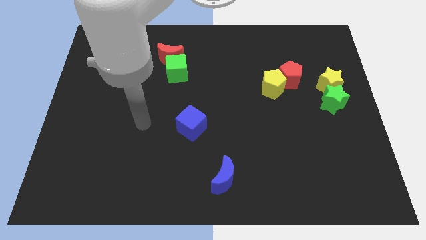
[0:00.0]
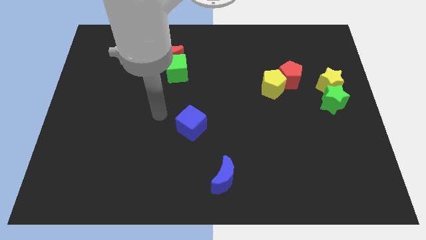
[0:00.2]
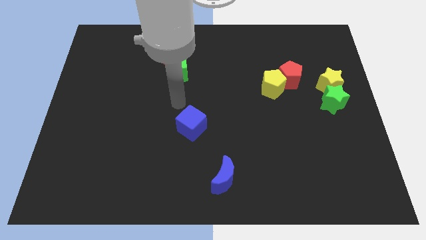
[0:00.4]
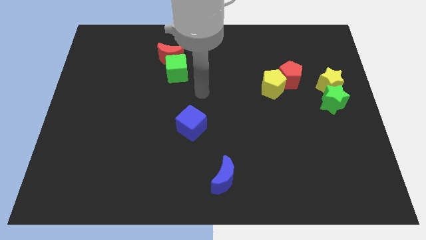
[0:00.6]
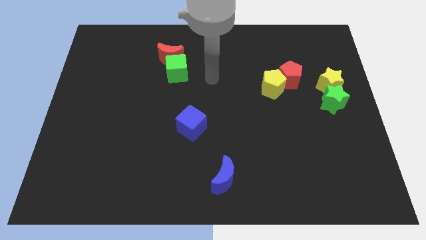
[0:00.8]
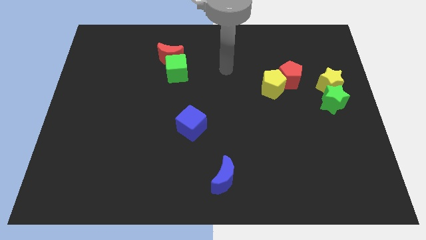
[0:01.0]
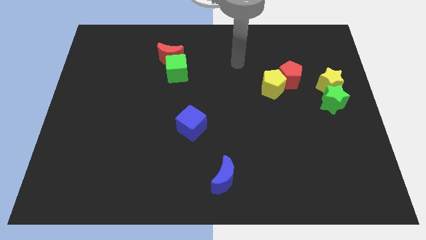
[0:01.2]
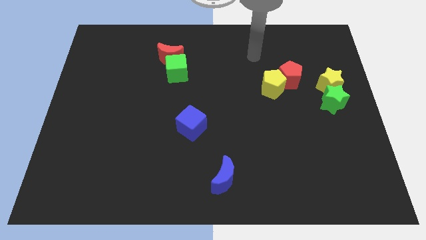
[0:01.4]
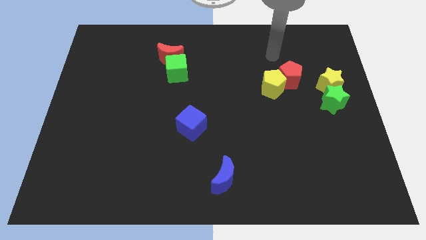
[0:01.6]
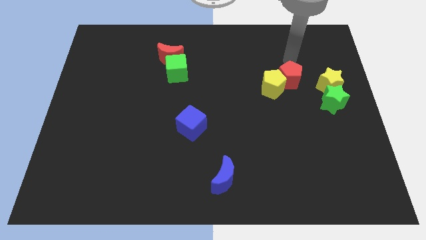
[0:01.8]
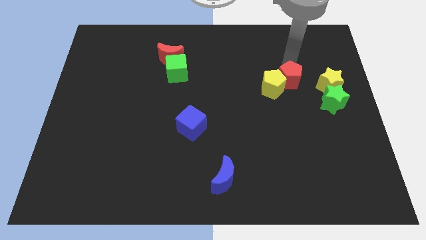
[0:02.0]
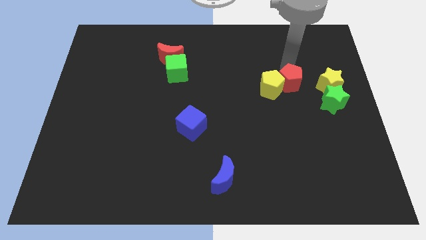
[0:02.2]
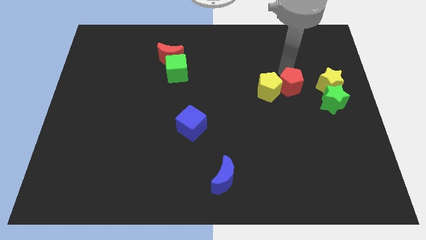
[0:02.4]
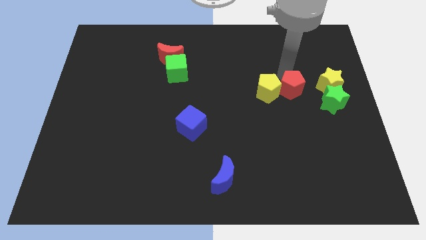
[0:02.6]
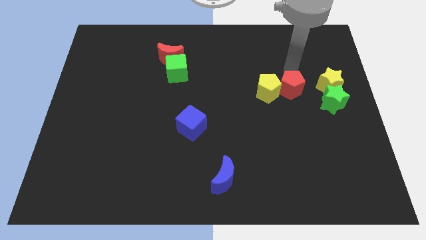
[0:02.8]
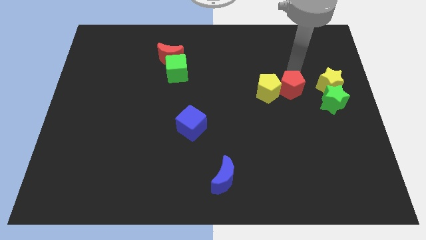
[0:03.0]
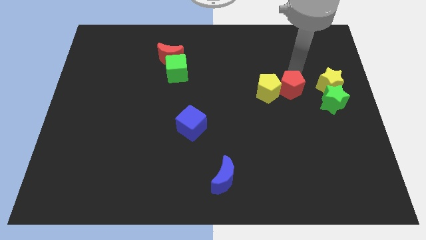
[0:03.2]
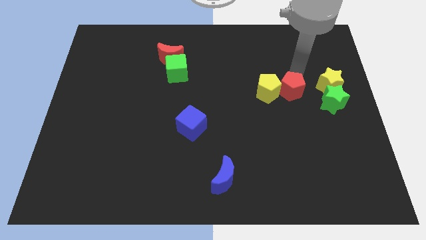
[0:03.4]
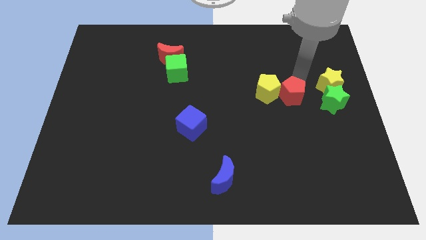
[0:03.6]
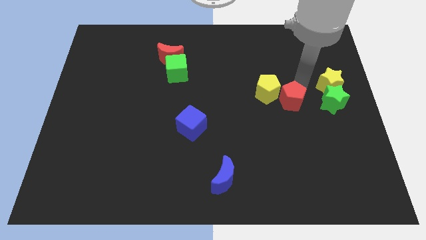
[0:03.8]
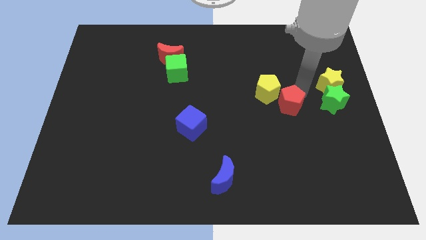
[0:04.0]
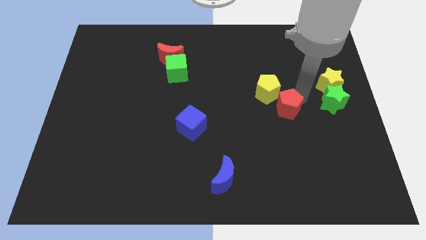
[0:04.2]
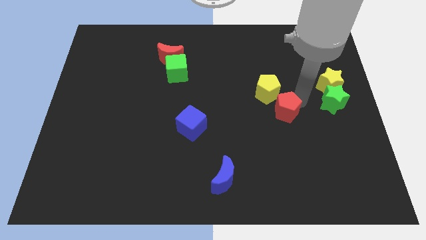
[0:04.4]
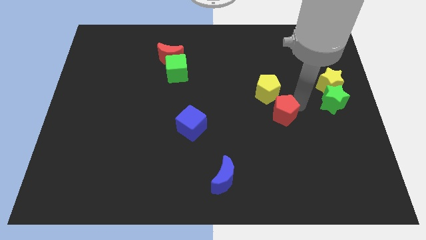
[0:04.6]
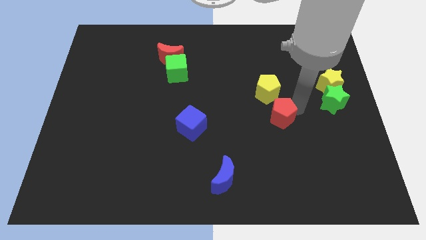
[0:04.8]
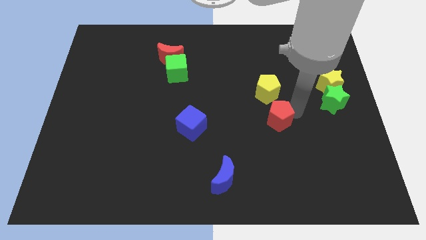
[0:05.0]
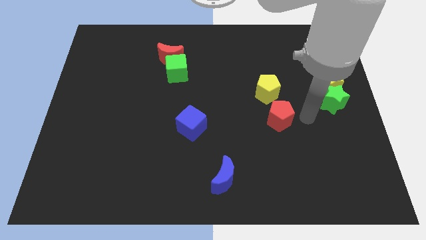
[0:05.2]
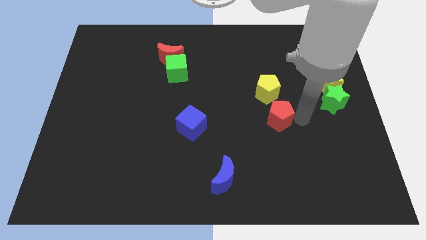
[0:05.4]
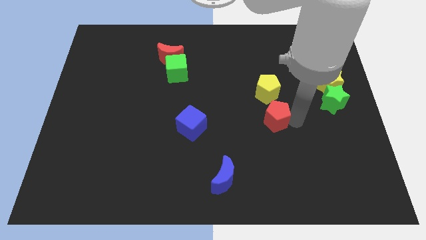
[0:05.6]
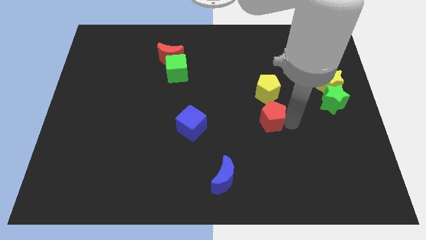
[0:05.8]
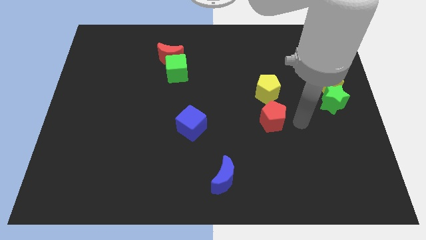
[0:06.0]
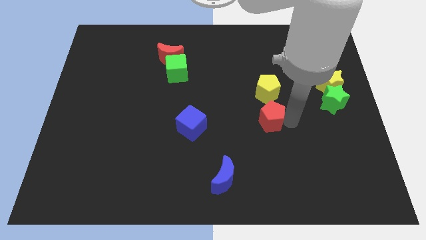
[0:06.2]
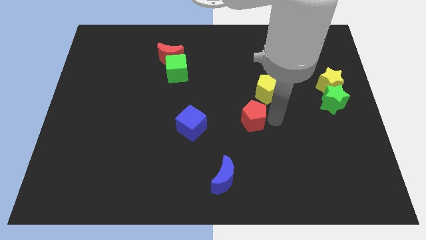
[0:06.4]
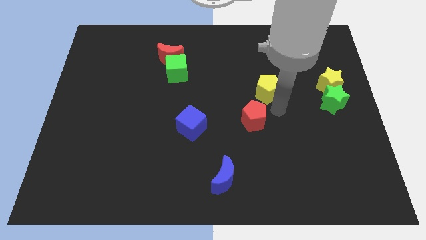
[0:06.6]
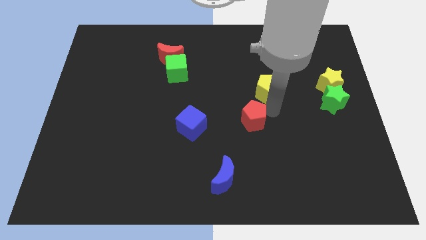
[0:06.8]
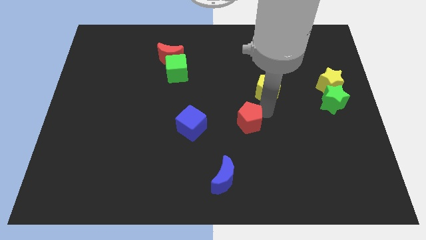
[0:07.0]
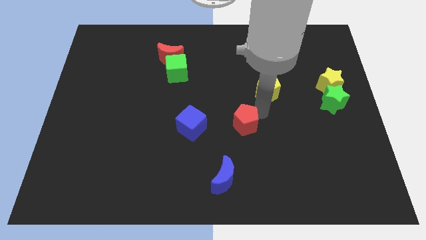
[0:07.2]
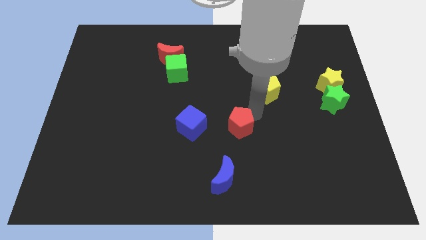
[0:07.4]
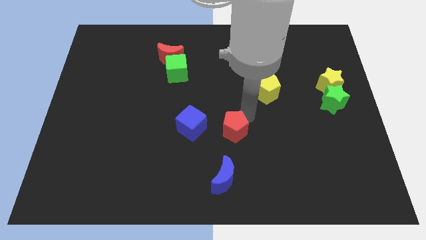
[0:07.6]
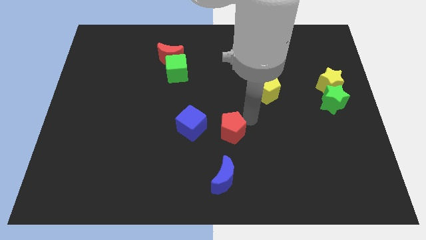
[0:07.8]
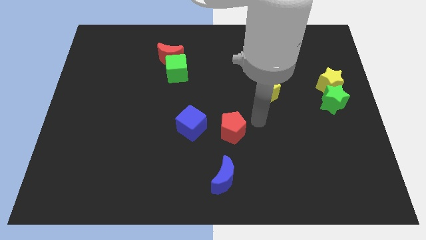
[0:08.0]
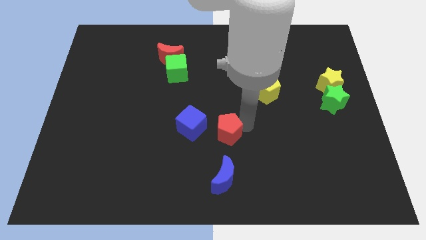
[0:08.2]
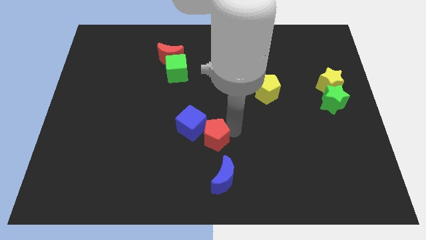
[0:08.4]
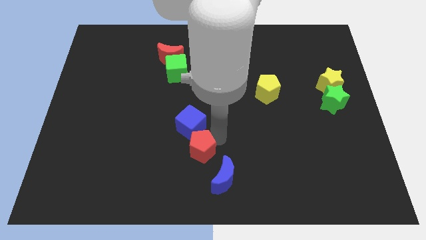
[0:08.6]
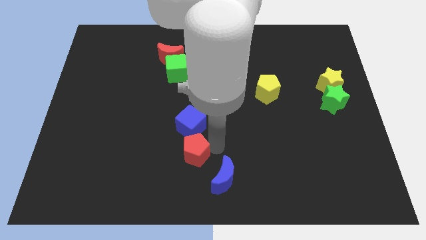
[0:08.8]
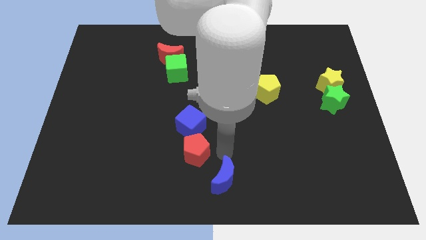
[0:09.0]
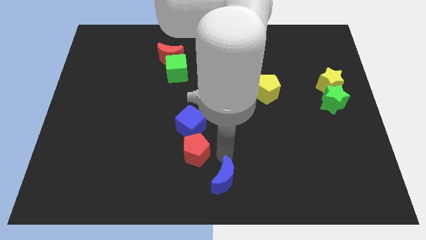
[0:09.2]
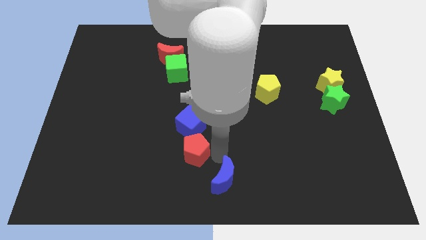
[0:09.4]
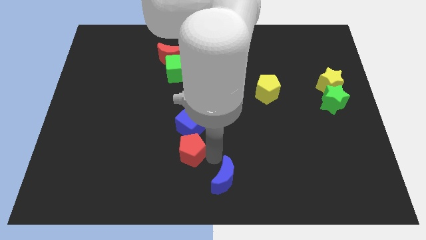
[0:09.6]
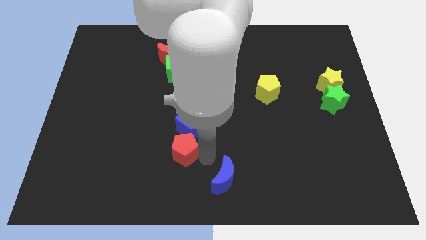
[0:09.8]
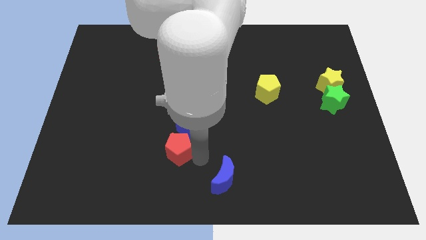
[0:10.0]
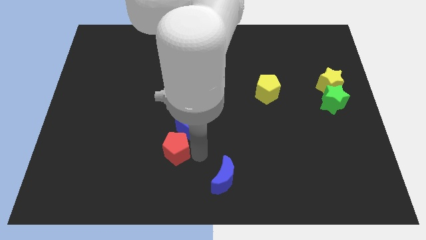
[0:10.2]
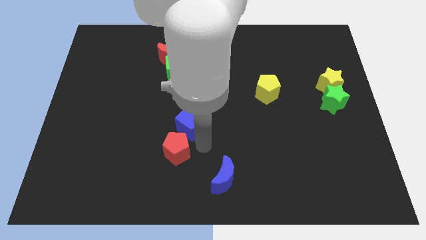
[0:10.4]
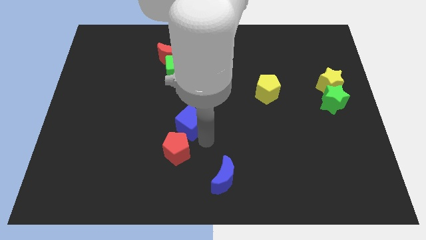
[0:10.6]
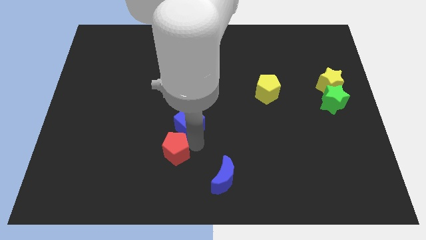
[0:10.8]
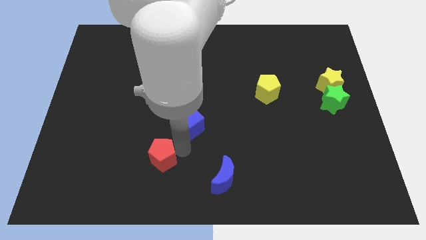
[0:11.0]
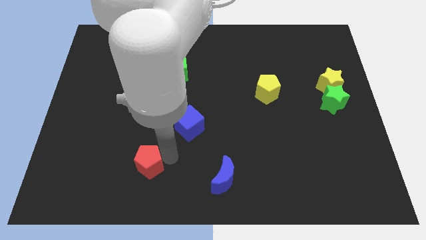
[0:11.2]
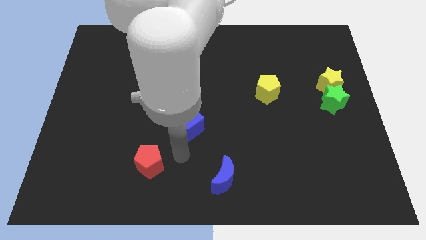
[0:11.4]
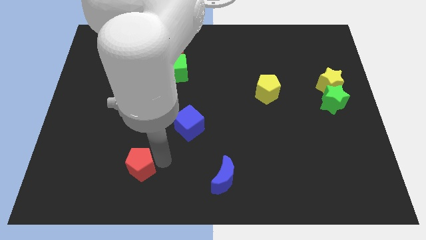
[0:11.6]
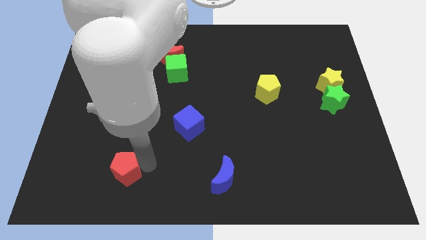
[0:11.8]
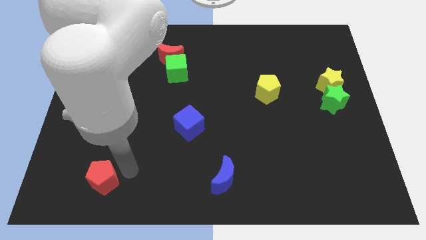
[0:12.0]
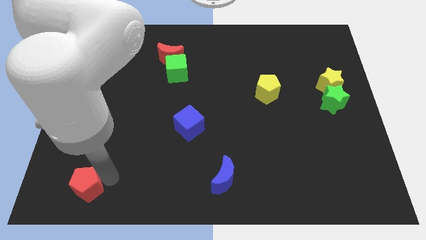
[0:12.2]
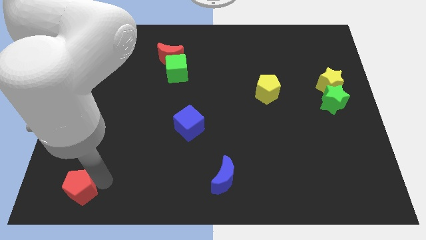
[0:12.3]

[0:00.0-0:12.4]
slide the red pentagon to the bottom left corner

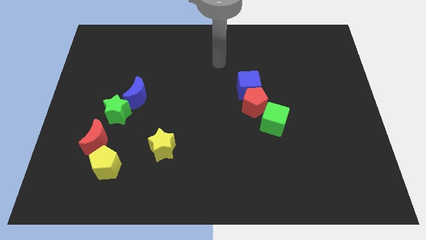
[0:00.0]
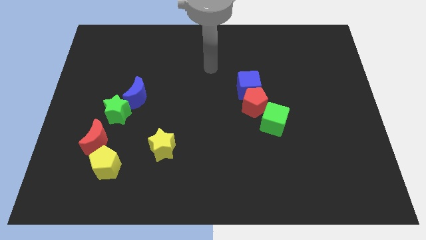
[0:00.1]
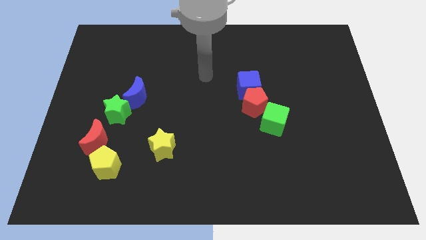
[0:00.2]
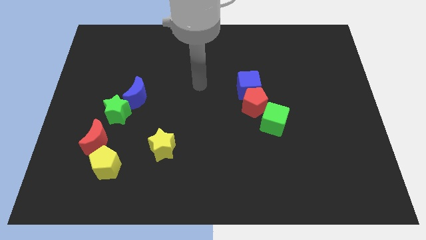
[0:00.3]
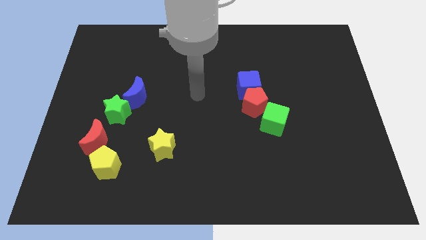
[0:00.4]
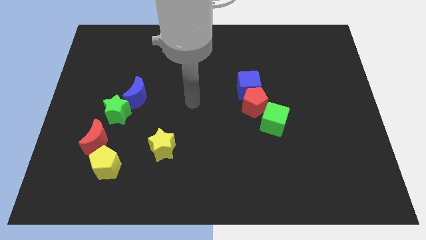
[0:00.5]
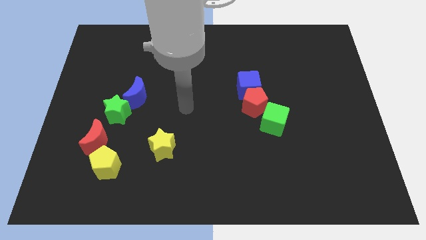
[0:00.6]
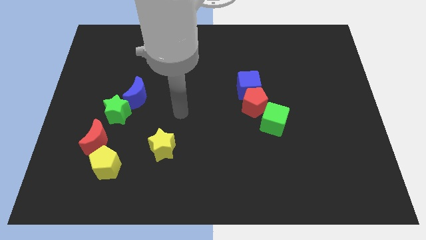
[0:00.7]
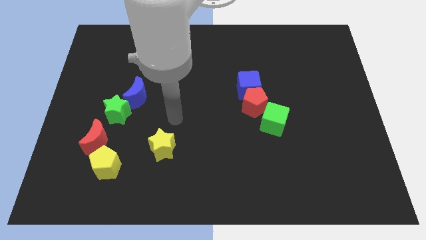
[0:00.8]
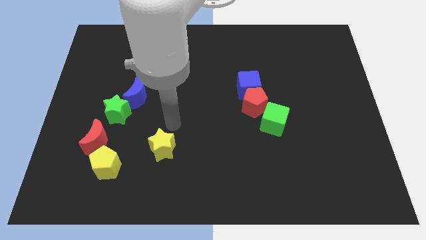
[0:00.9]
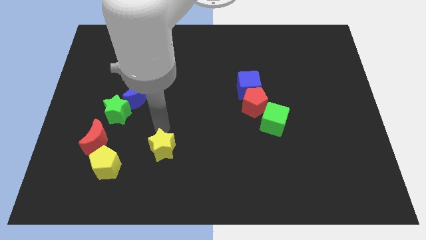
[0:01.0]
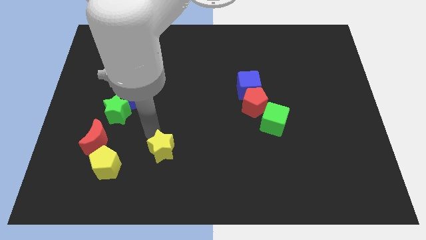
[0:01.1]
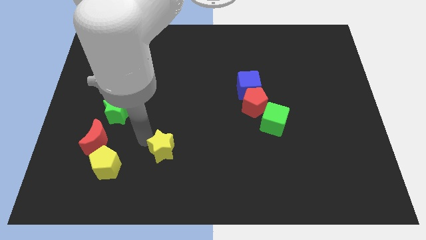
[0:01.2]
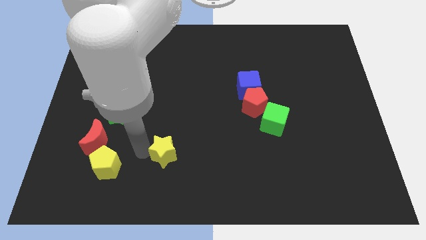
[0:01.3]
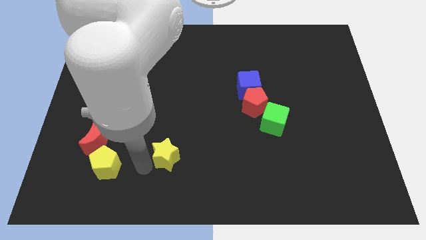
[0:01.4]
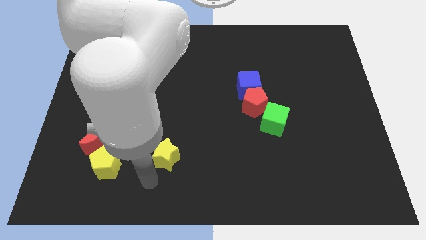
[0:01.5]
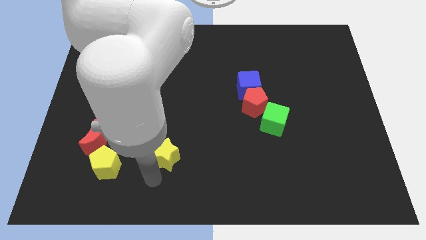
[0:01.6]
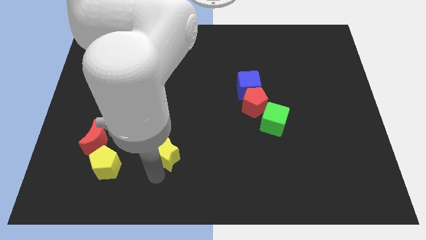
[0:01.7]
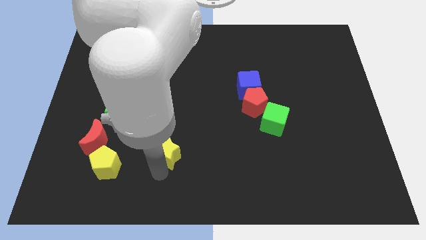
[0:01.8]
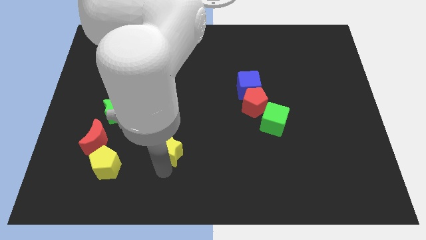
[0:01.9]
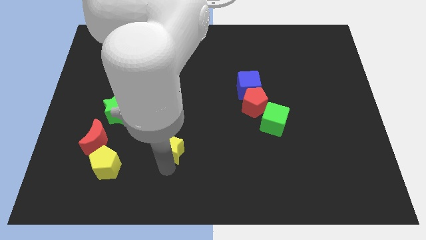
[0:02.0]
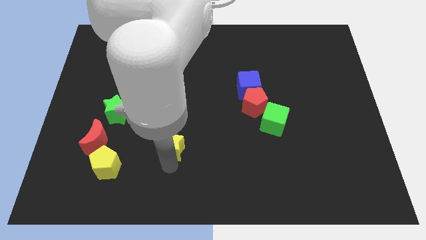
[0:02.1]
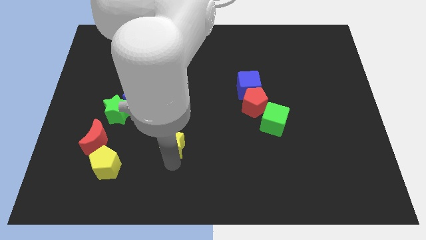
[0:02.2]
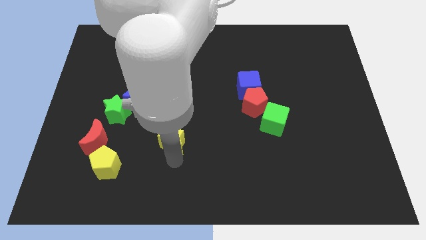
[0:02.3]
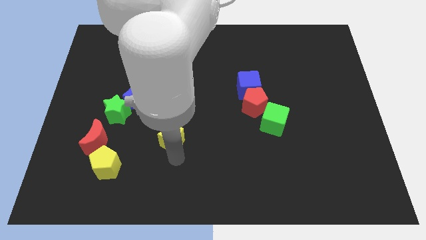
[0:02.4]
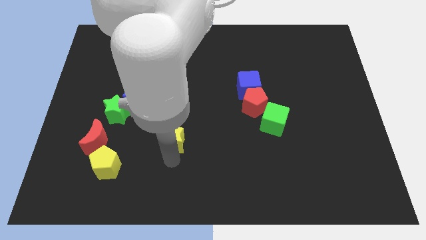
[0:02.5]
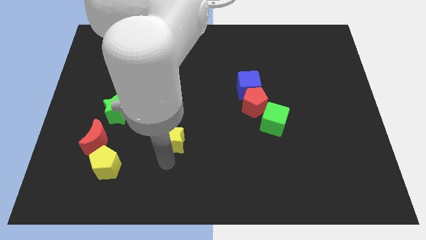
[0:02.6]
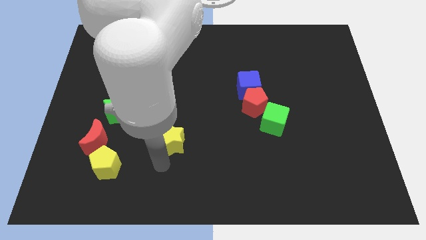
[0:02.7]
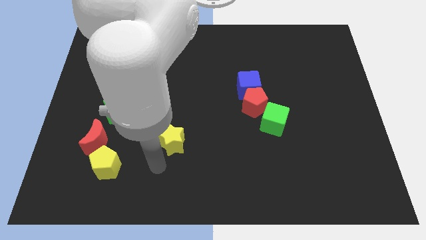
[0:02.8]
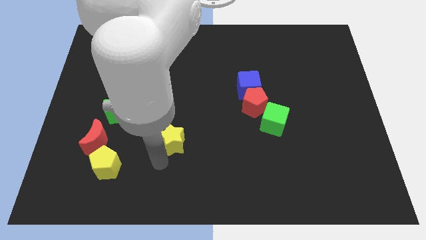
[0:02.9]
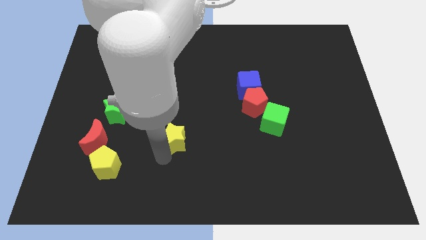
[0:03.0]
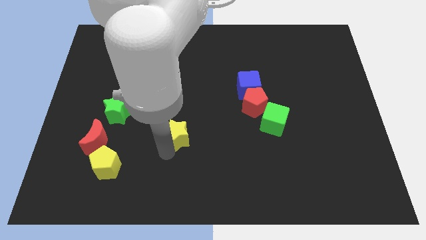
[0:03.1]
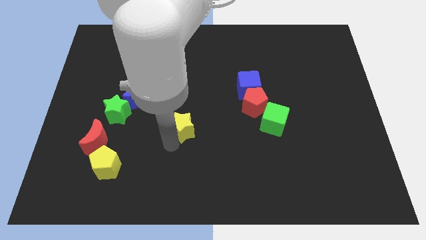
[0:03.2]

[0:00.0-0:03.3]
put the yellow star to the center of the board
